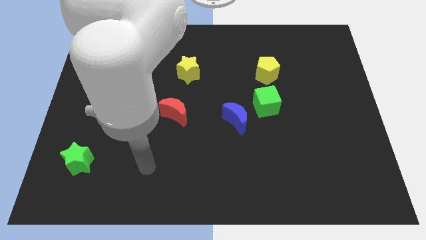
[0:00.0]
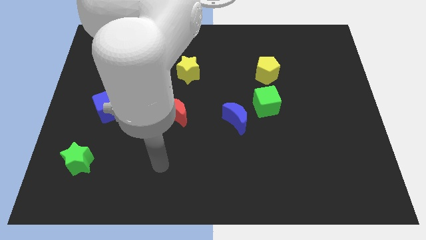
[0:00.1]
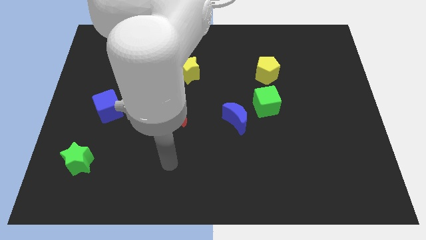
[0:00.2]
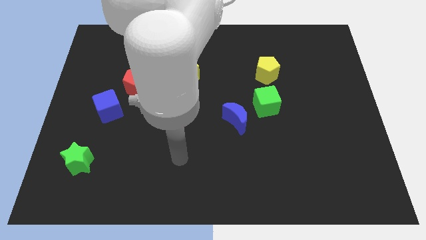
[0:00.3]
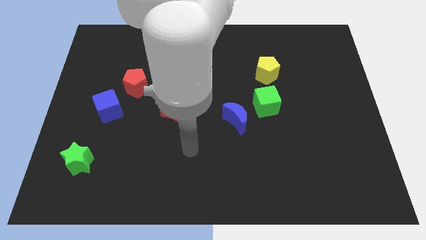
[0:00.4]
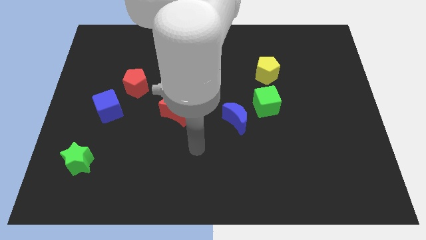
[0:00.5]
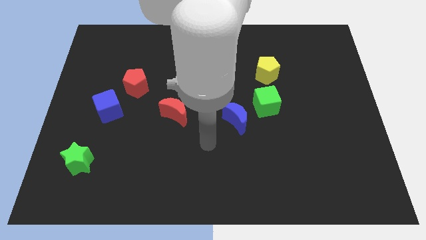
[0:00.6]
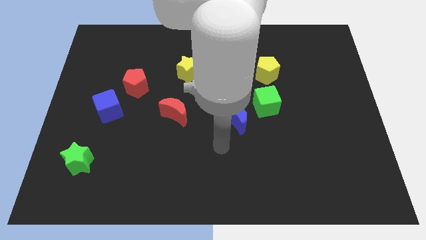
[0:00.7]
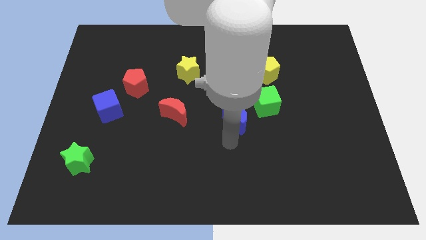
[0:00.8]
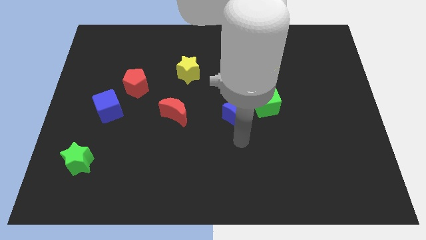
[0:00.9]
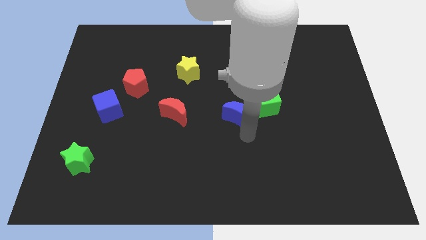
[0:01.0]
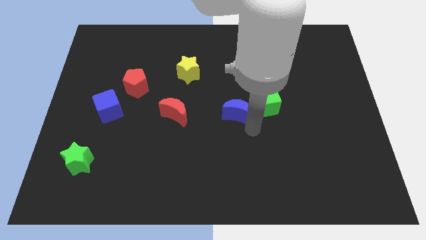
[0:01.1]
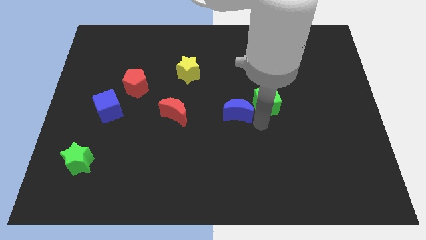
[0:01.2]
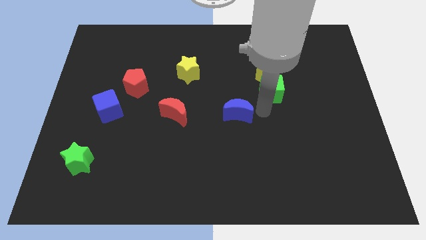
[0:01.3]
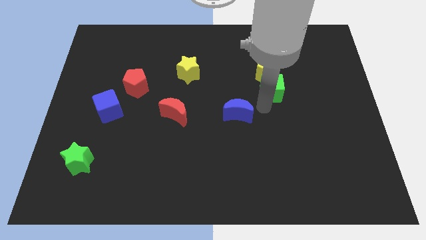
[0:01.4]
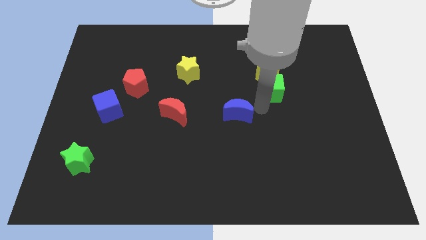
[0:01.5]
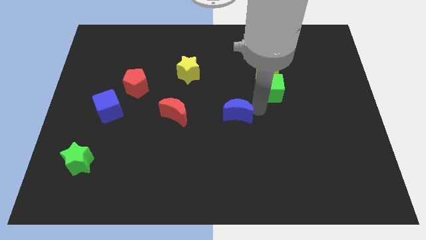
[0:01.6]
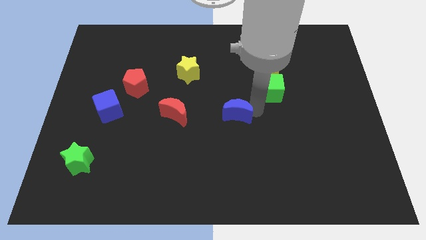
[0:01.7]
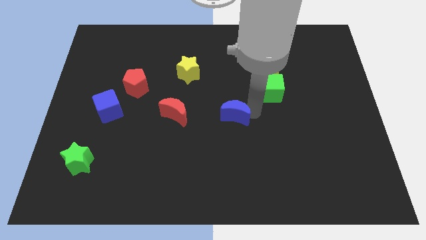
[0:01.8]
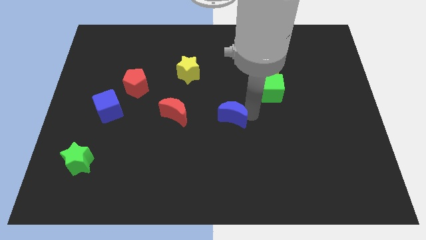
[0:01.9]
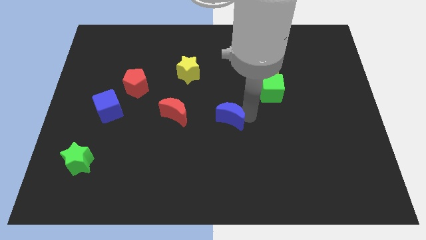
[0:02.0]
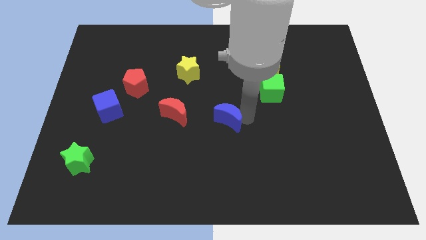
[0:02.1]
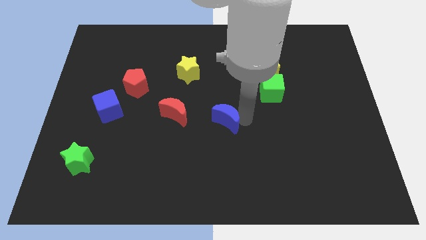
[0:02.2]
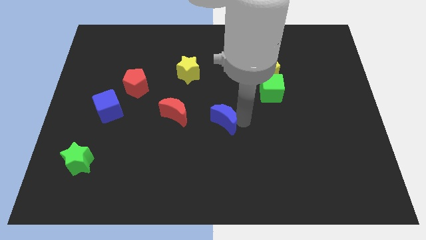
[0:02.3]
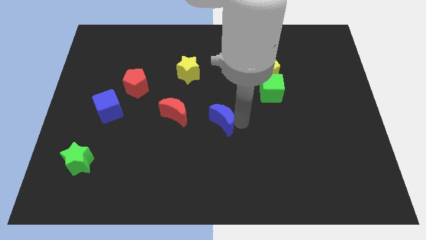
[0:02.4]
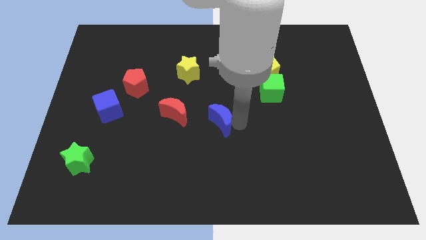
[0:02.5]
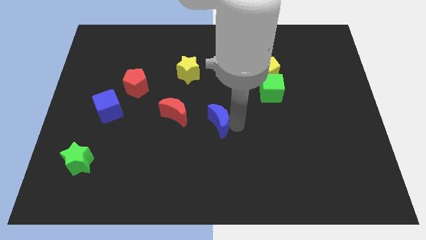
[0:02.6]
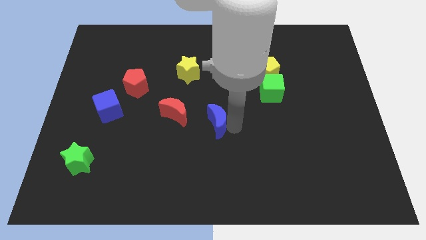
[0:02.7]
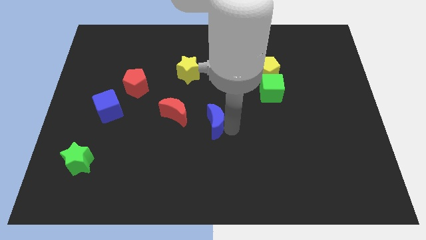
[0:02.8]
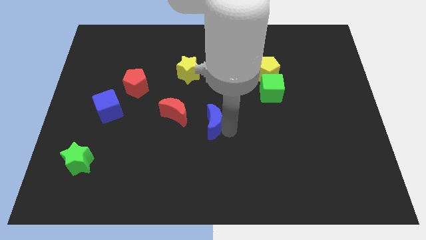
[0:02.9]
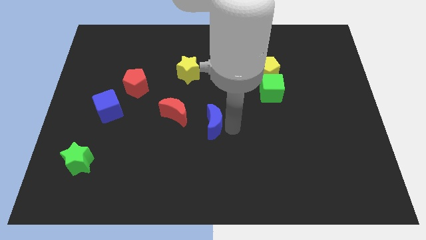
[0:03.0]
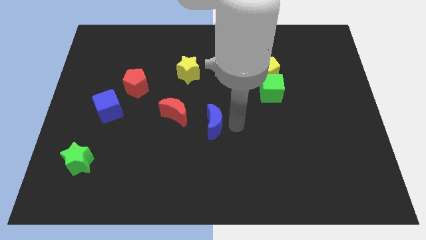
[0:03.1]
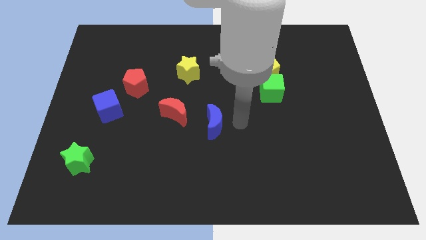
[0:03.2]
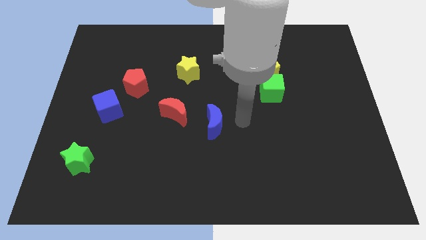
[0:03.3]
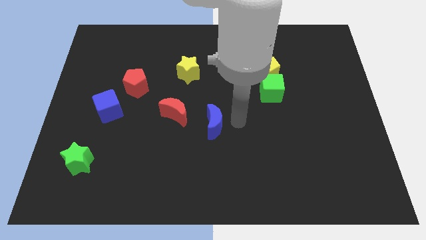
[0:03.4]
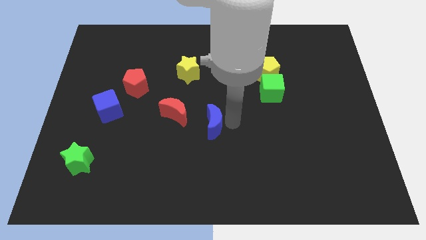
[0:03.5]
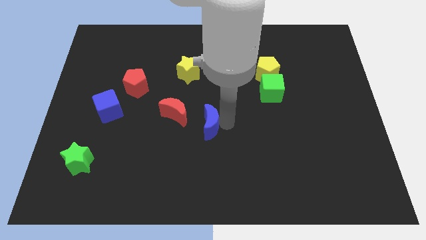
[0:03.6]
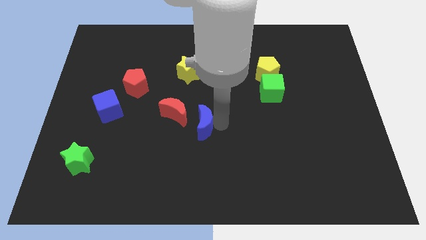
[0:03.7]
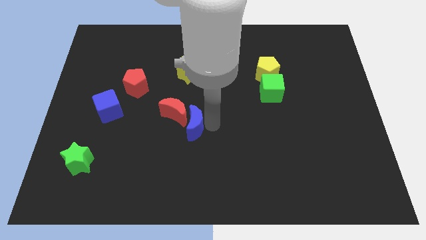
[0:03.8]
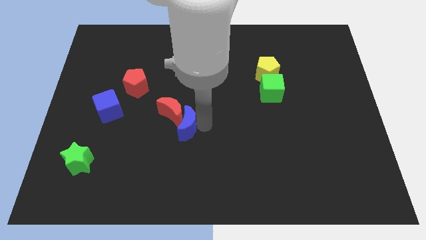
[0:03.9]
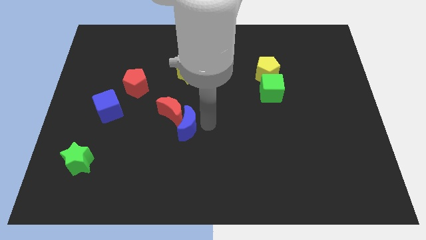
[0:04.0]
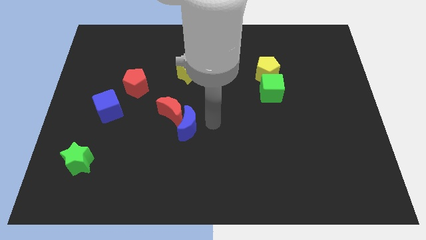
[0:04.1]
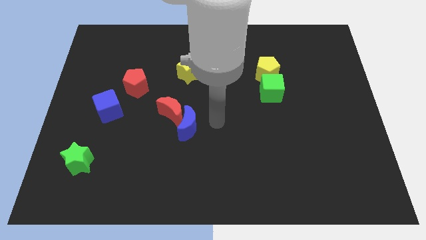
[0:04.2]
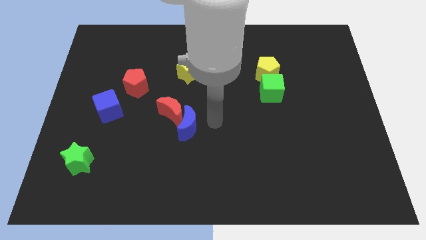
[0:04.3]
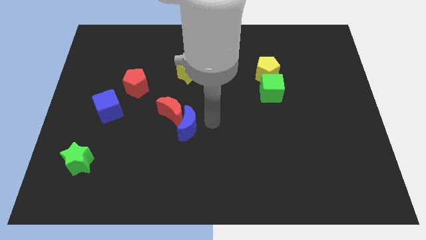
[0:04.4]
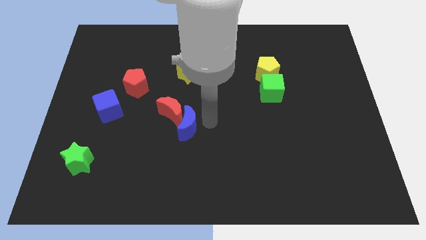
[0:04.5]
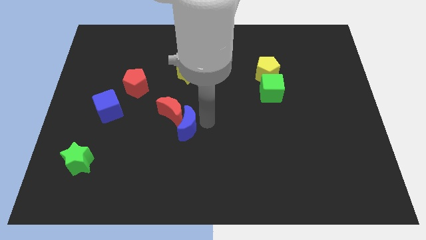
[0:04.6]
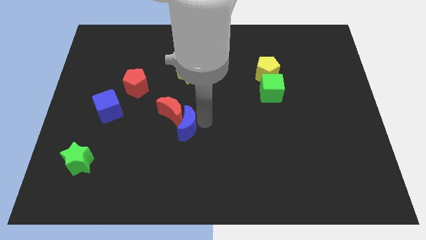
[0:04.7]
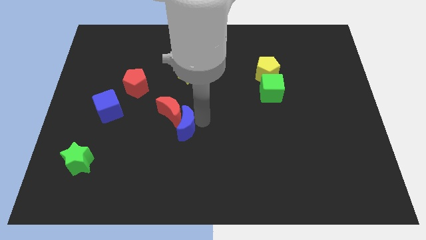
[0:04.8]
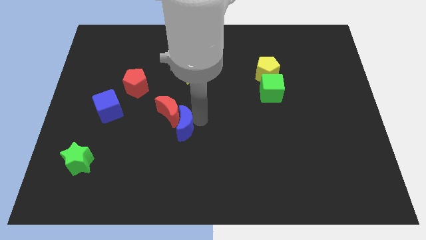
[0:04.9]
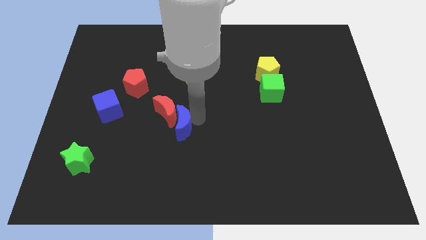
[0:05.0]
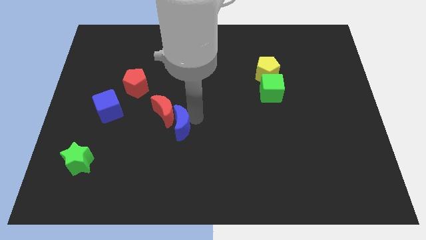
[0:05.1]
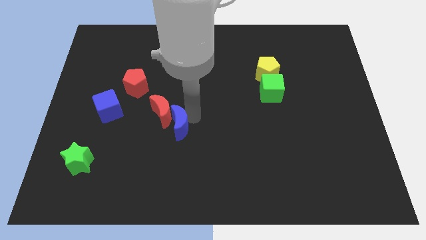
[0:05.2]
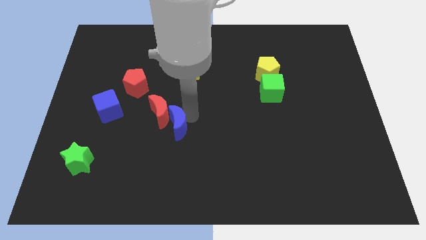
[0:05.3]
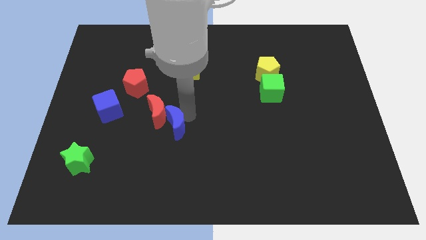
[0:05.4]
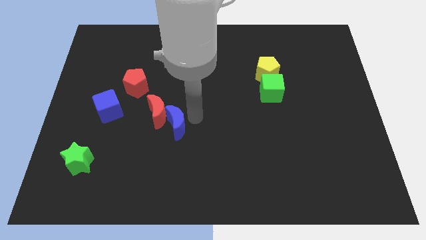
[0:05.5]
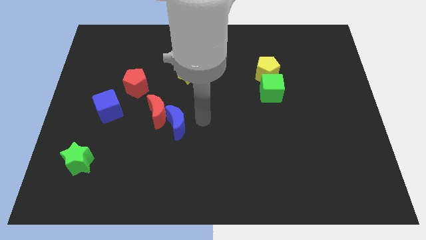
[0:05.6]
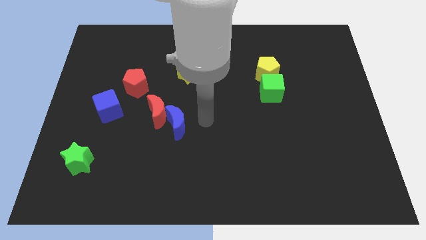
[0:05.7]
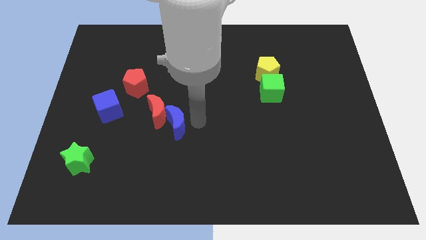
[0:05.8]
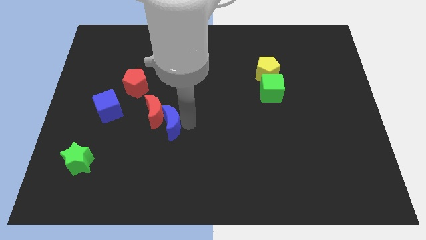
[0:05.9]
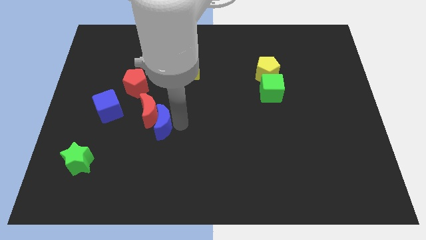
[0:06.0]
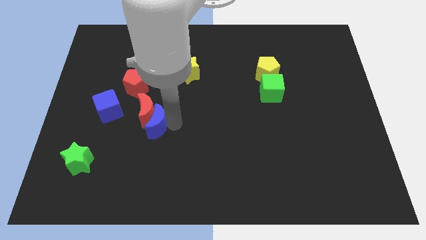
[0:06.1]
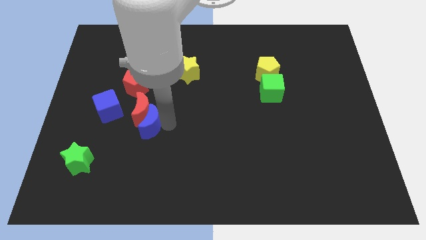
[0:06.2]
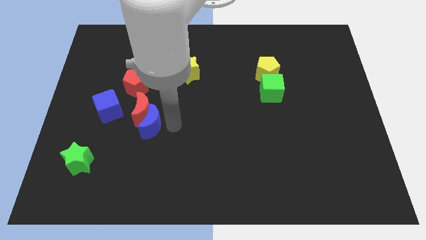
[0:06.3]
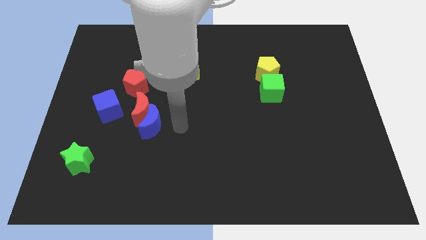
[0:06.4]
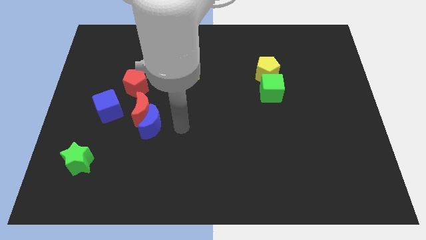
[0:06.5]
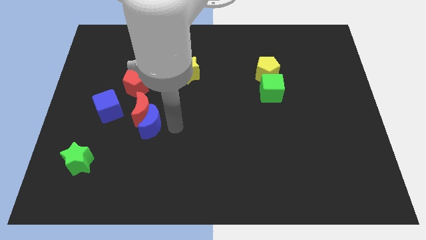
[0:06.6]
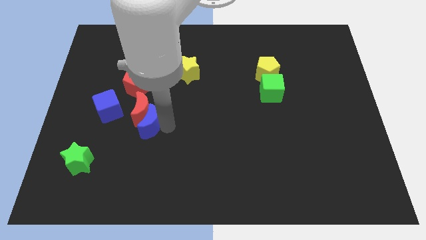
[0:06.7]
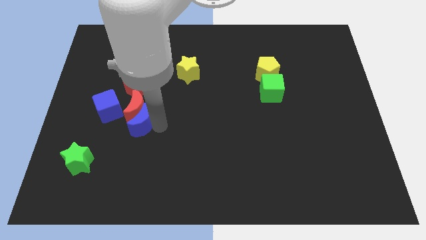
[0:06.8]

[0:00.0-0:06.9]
push the blue moon left

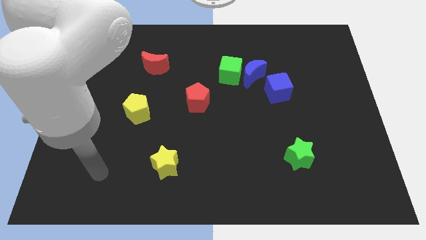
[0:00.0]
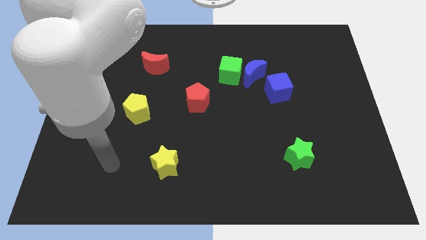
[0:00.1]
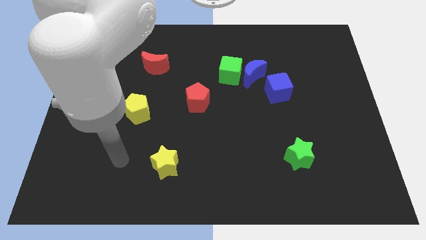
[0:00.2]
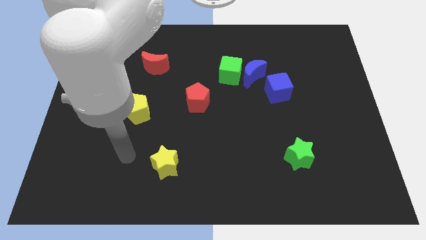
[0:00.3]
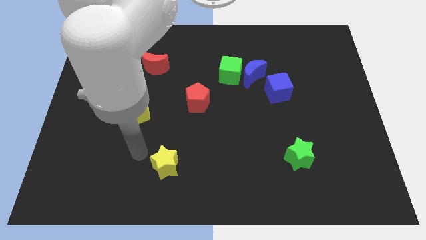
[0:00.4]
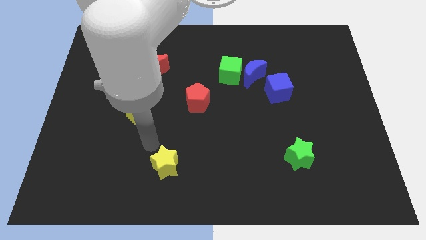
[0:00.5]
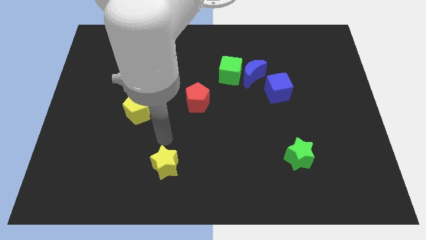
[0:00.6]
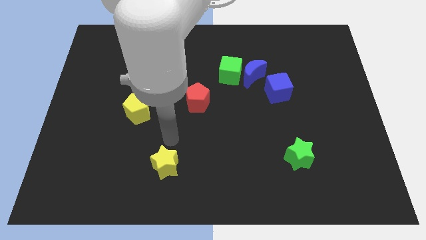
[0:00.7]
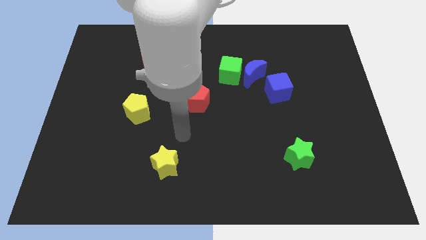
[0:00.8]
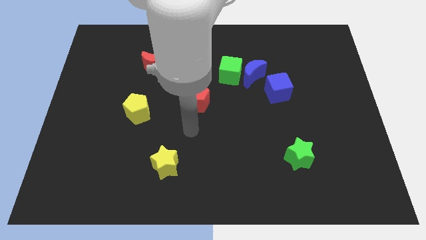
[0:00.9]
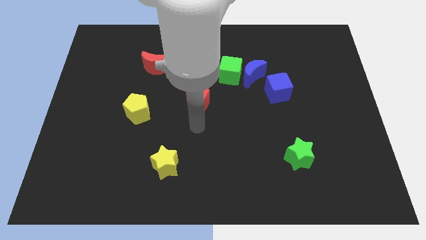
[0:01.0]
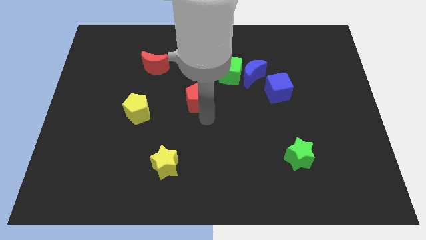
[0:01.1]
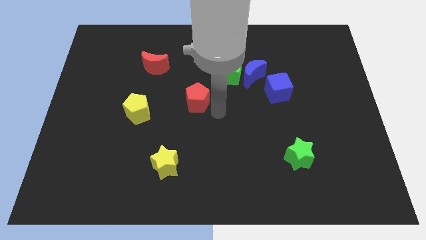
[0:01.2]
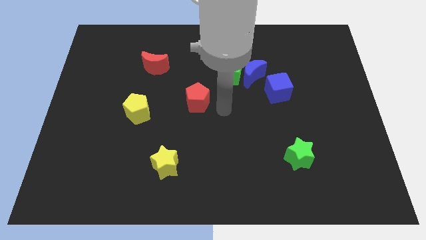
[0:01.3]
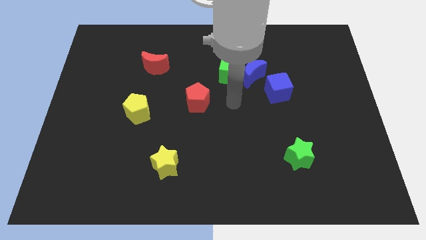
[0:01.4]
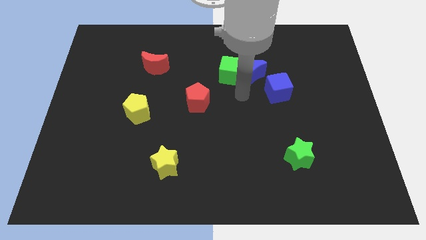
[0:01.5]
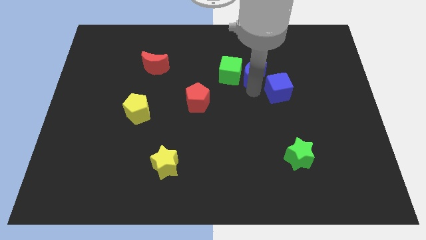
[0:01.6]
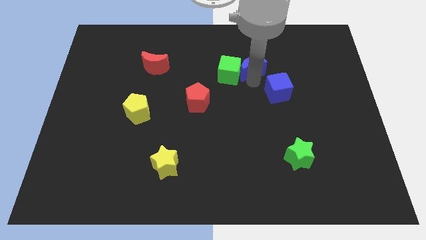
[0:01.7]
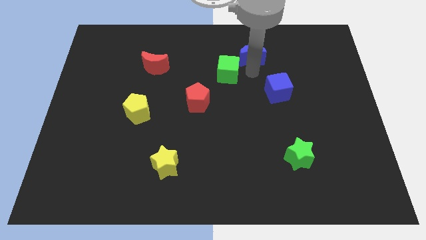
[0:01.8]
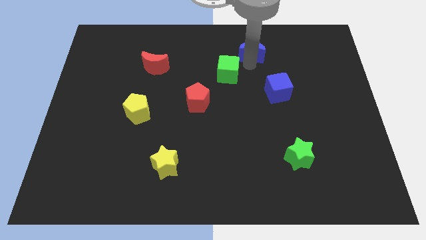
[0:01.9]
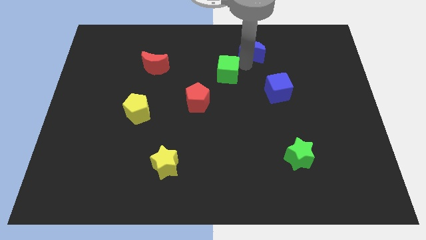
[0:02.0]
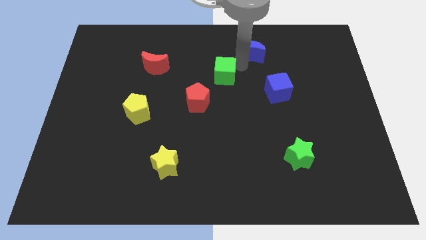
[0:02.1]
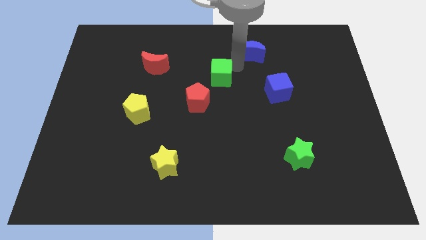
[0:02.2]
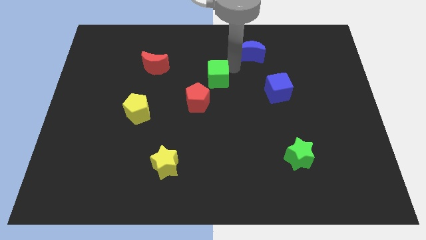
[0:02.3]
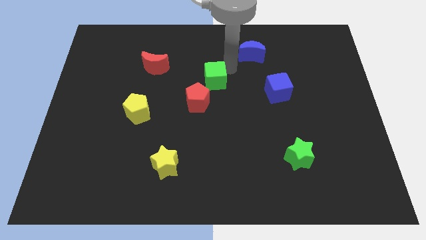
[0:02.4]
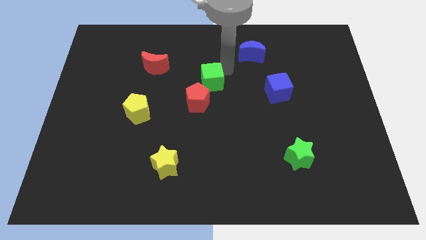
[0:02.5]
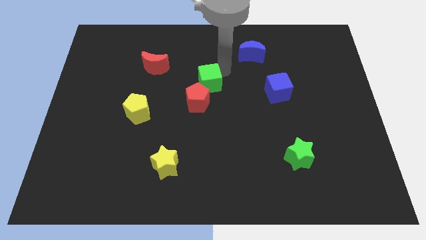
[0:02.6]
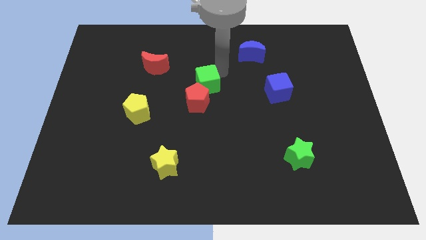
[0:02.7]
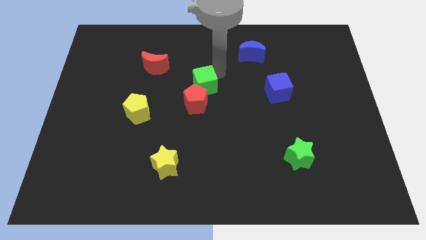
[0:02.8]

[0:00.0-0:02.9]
push the green cube down and then left a little bit
